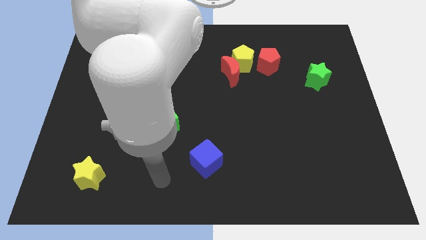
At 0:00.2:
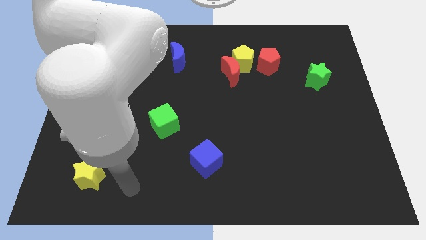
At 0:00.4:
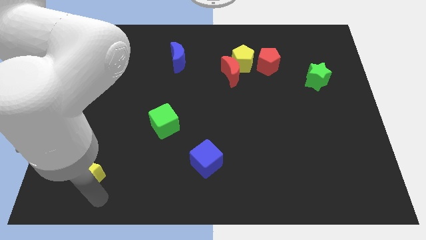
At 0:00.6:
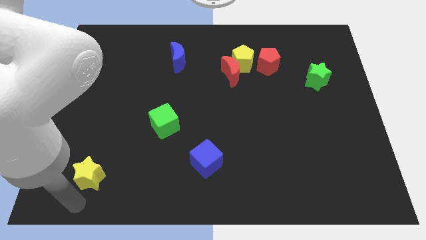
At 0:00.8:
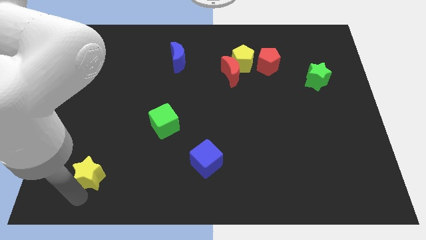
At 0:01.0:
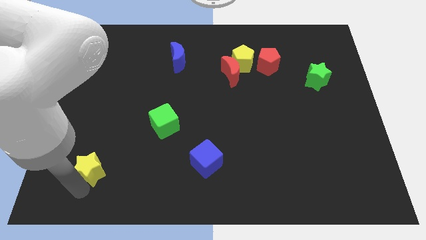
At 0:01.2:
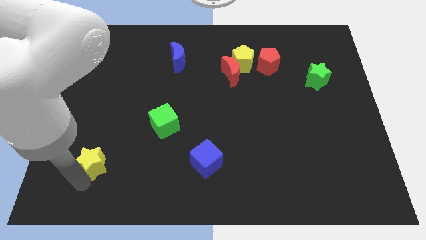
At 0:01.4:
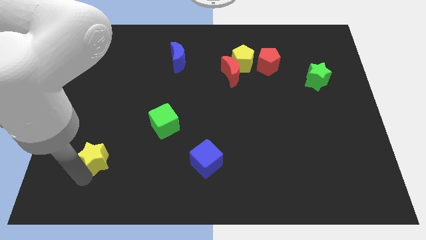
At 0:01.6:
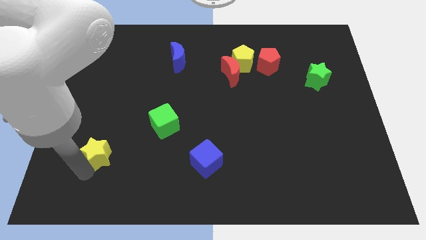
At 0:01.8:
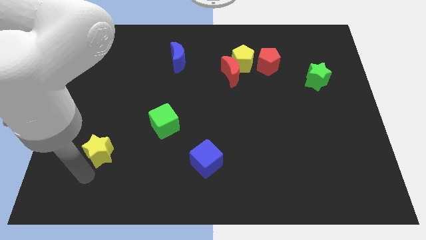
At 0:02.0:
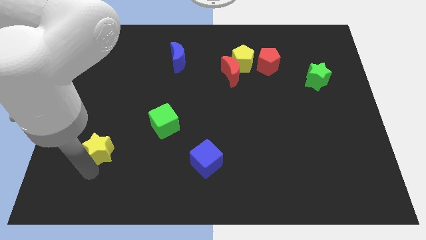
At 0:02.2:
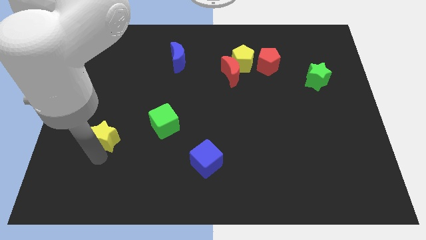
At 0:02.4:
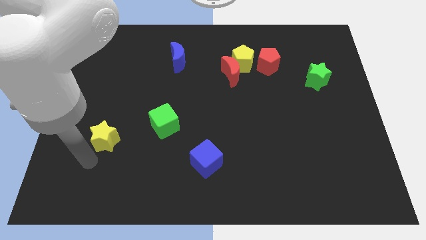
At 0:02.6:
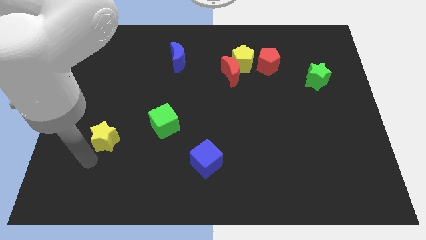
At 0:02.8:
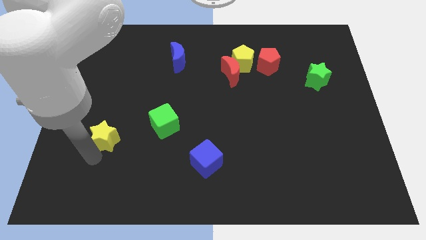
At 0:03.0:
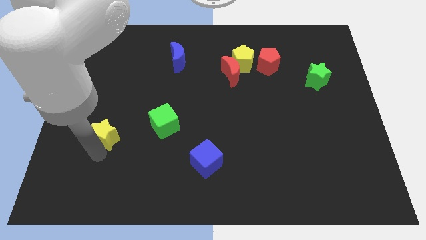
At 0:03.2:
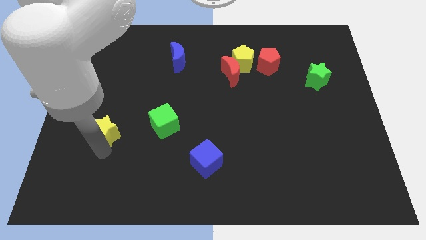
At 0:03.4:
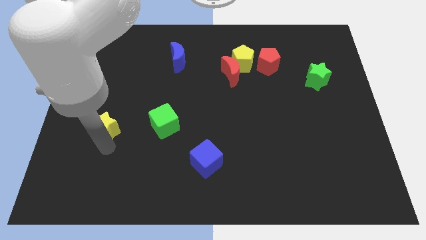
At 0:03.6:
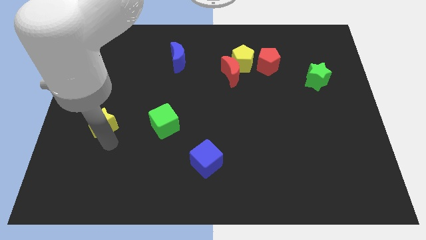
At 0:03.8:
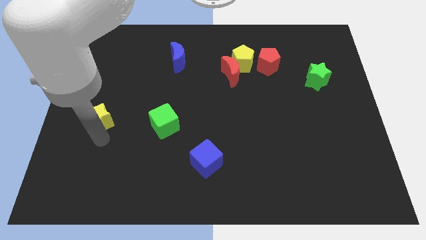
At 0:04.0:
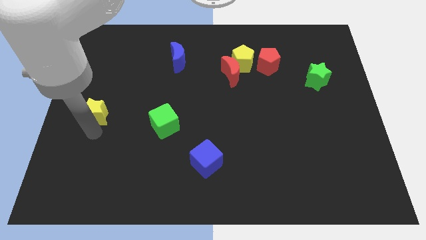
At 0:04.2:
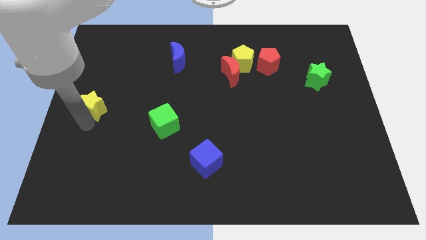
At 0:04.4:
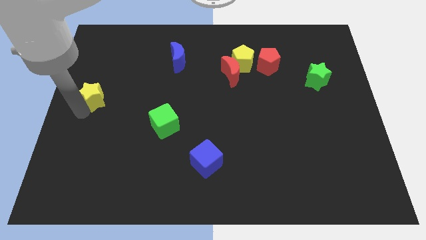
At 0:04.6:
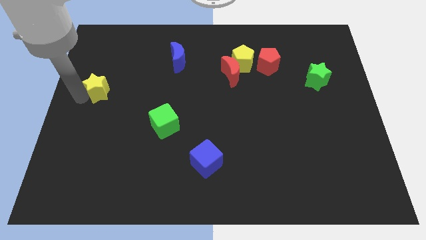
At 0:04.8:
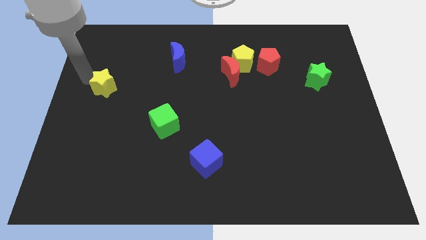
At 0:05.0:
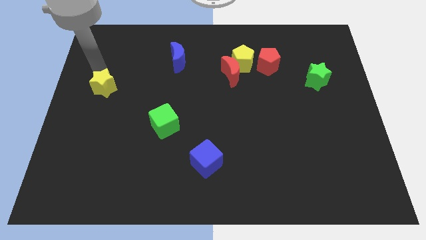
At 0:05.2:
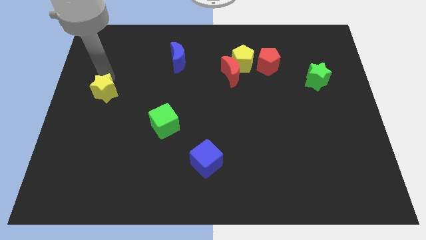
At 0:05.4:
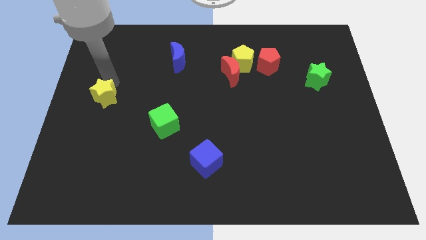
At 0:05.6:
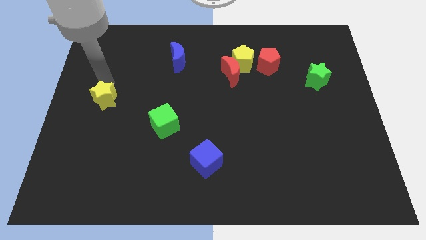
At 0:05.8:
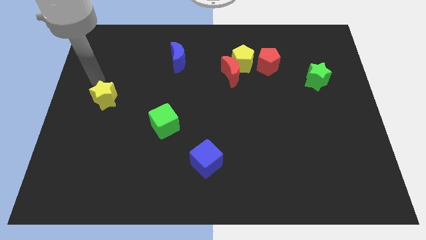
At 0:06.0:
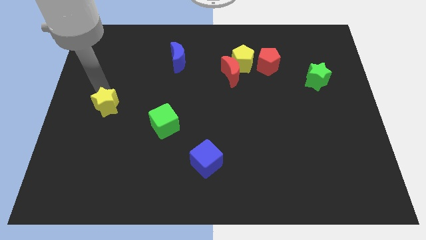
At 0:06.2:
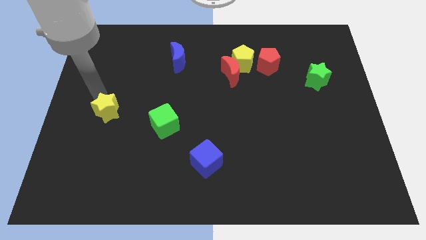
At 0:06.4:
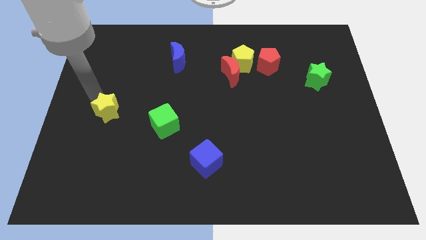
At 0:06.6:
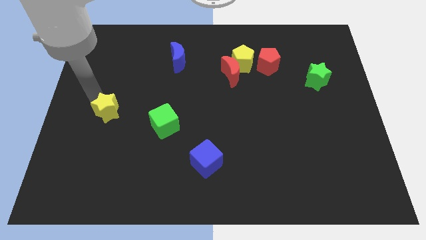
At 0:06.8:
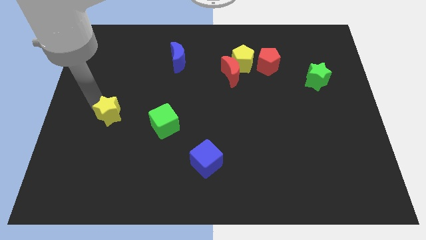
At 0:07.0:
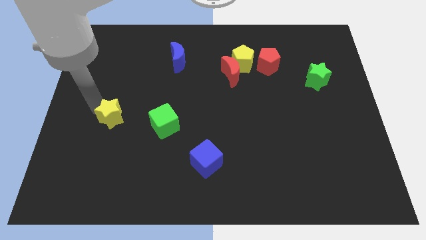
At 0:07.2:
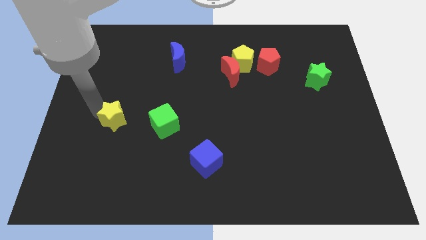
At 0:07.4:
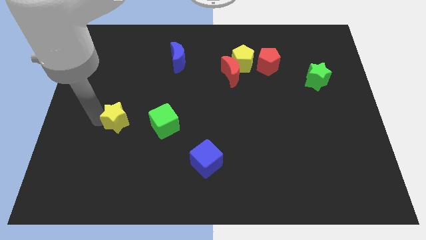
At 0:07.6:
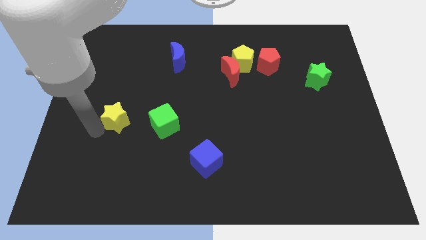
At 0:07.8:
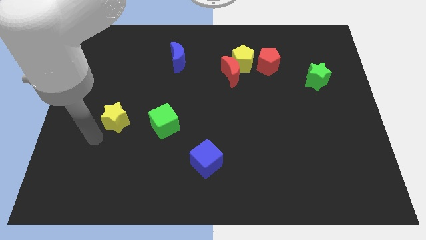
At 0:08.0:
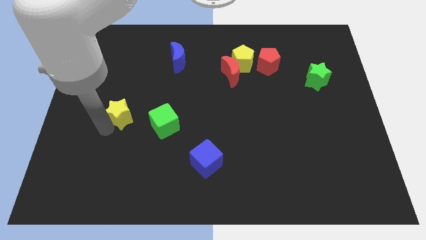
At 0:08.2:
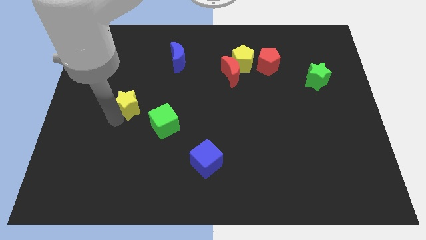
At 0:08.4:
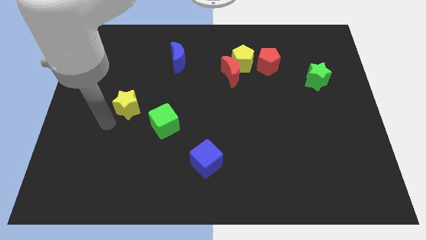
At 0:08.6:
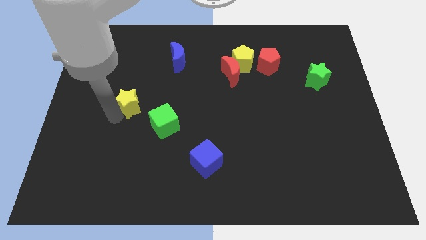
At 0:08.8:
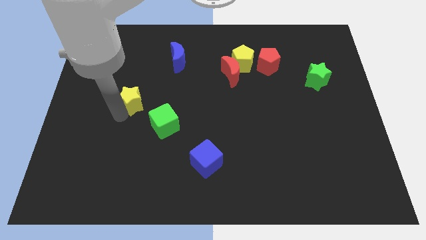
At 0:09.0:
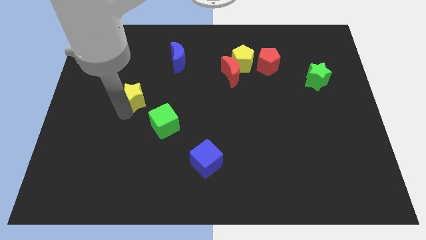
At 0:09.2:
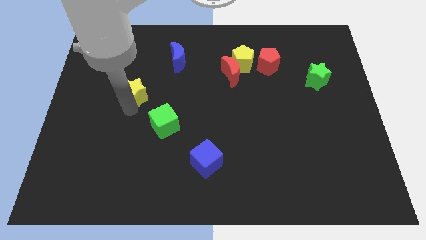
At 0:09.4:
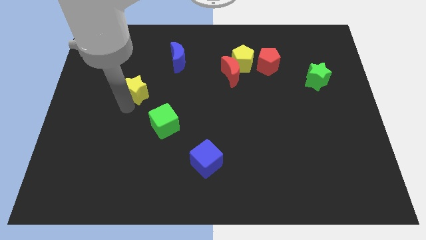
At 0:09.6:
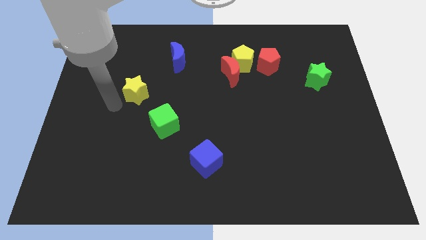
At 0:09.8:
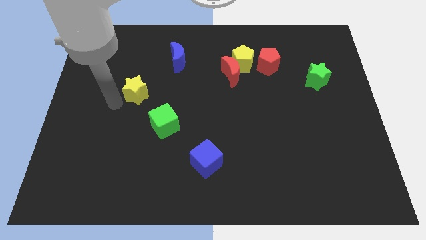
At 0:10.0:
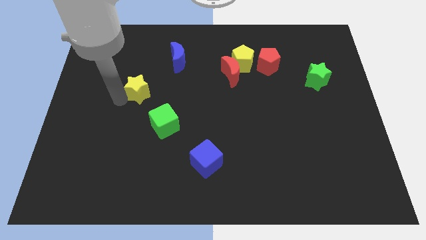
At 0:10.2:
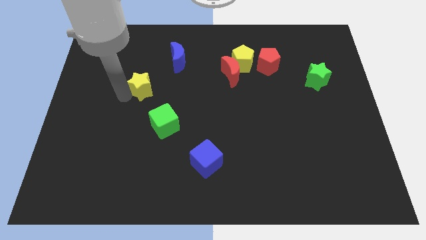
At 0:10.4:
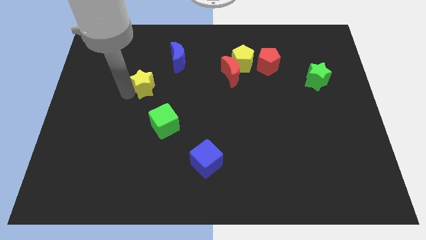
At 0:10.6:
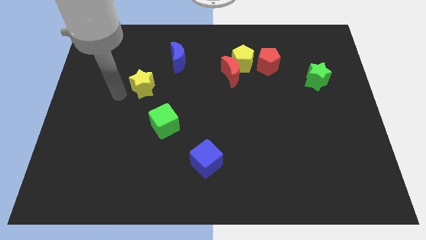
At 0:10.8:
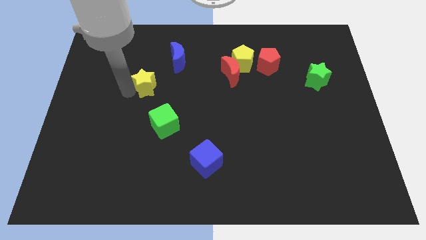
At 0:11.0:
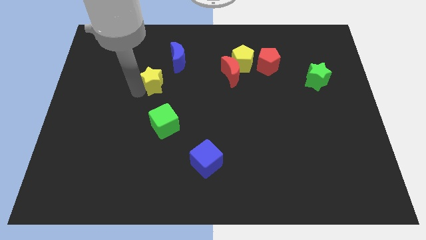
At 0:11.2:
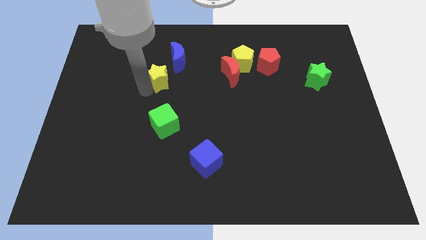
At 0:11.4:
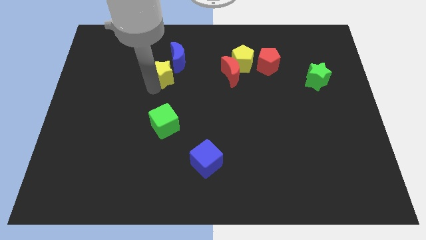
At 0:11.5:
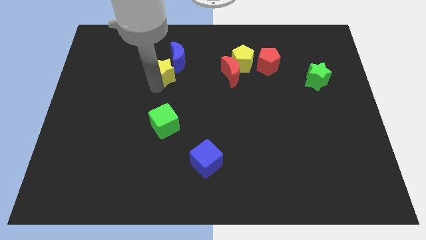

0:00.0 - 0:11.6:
slide the yellow star towards the blue moon
